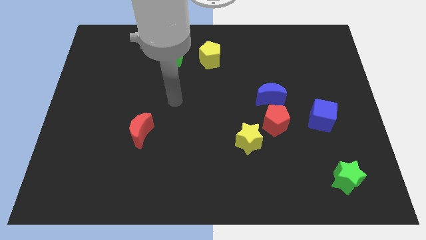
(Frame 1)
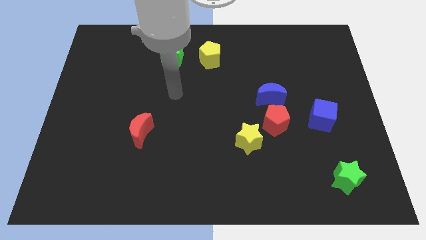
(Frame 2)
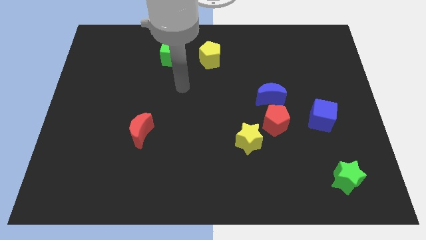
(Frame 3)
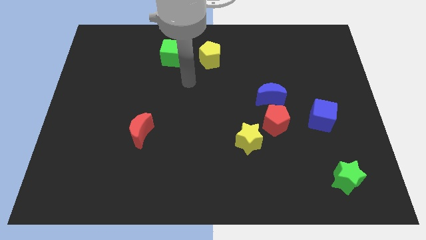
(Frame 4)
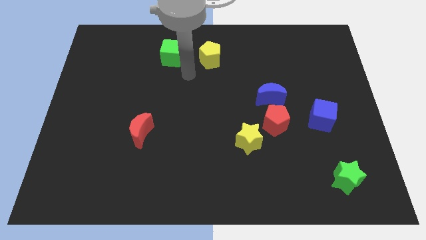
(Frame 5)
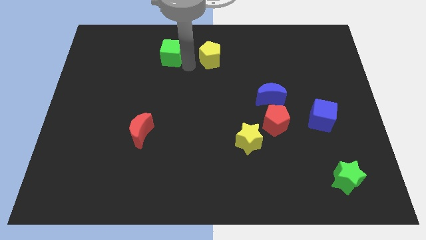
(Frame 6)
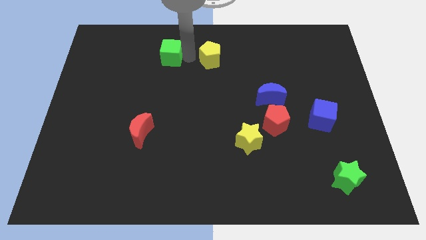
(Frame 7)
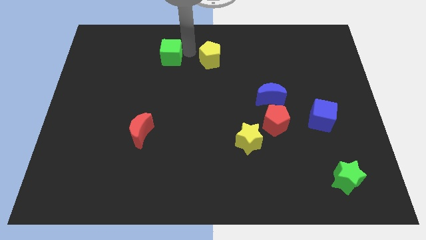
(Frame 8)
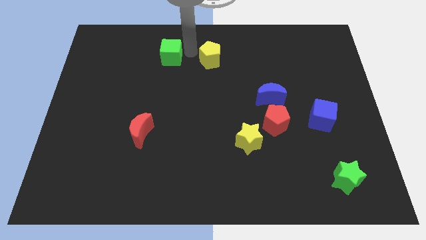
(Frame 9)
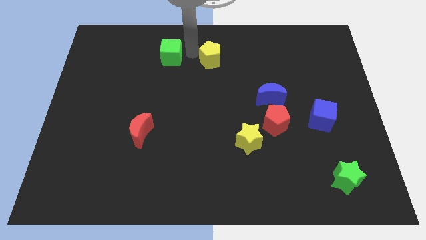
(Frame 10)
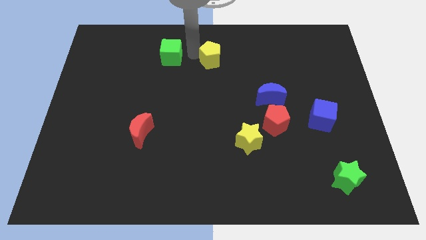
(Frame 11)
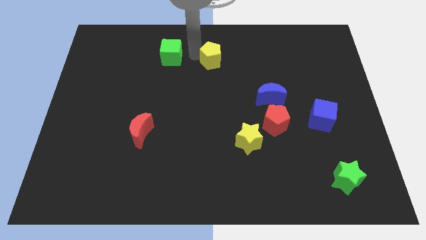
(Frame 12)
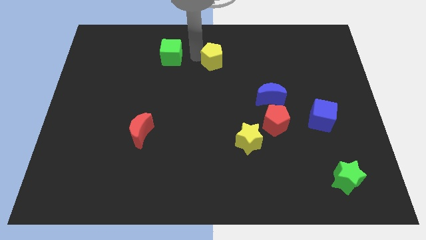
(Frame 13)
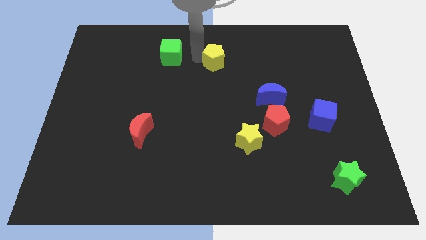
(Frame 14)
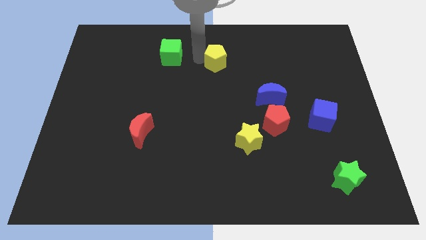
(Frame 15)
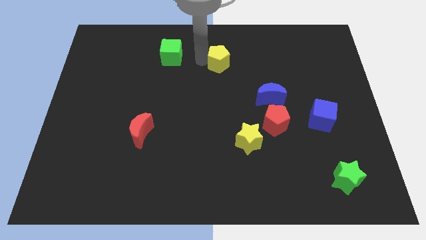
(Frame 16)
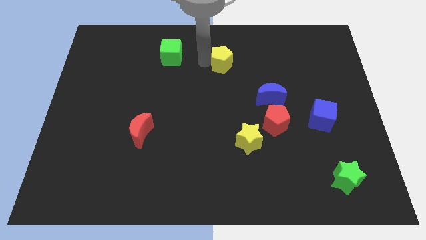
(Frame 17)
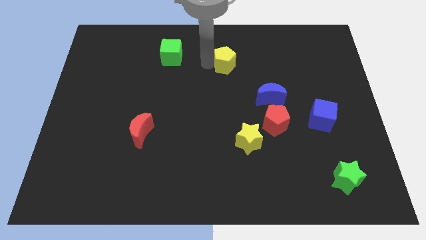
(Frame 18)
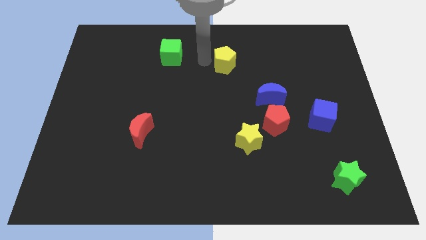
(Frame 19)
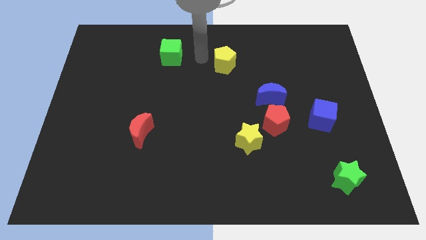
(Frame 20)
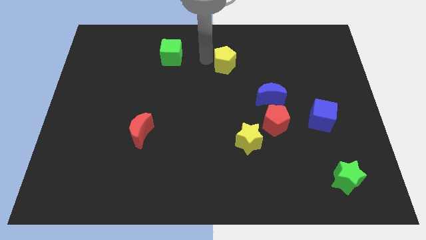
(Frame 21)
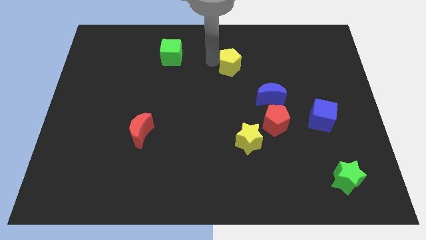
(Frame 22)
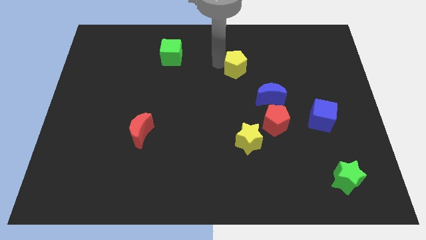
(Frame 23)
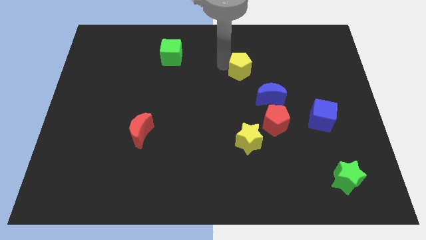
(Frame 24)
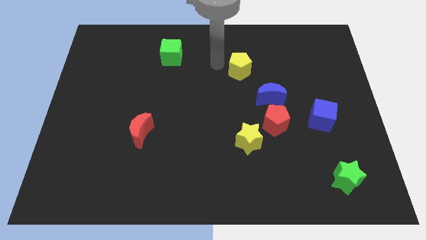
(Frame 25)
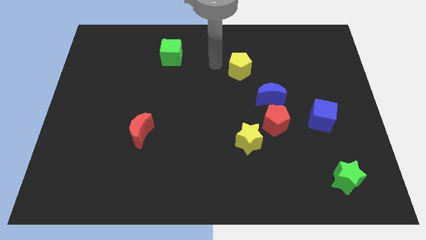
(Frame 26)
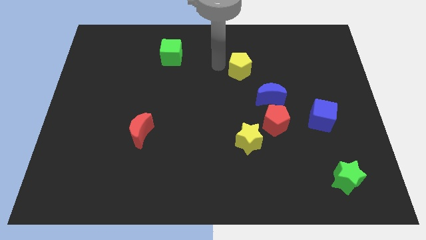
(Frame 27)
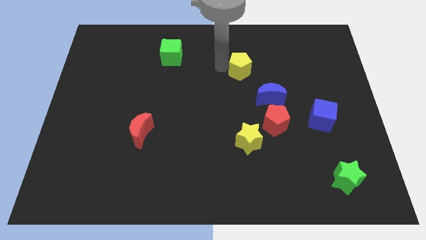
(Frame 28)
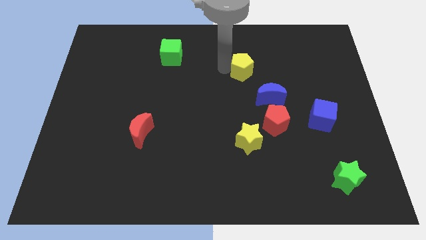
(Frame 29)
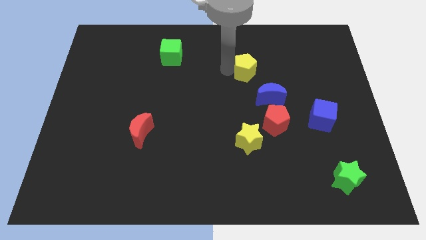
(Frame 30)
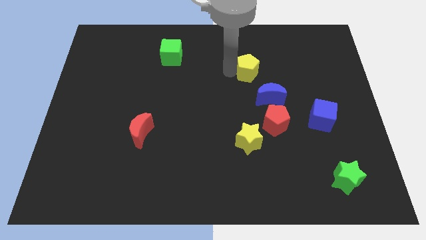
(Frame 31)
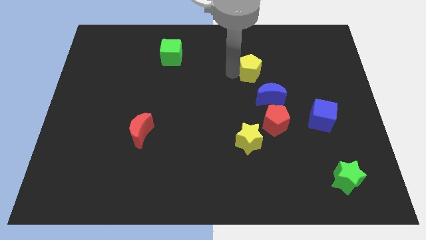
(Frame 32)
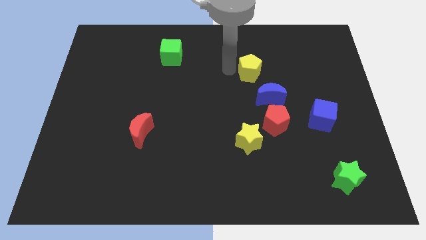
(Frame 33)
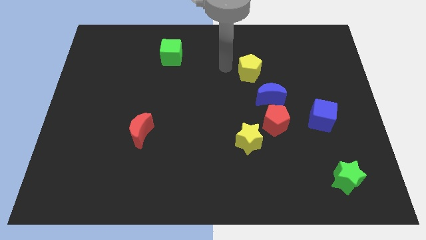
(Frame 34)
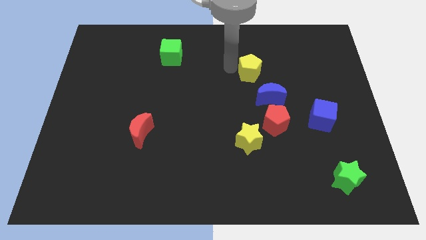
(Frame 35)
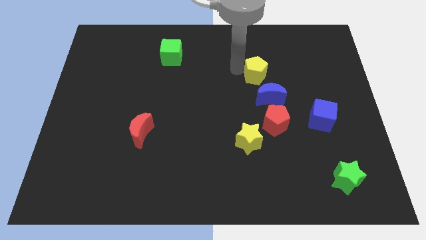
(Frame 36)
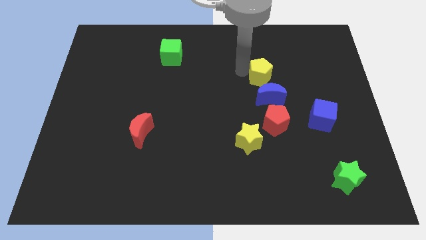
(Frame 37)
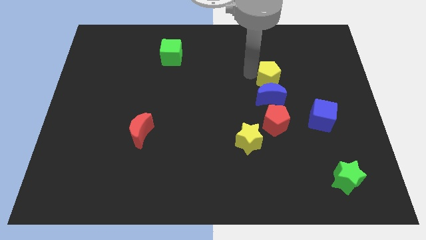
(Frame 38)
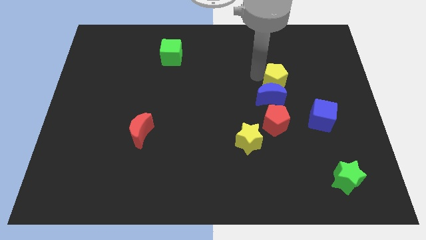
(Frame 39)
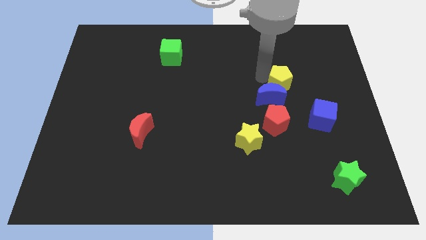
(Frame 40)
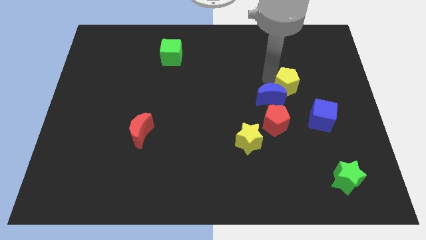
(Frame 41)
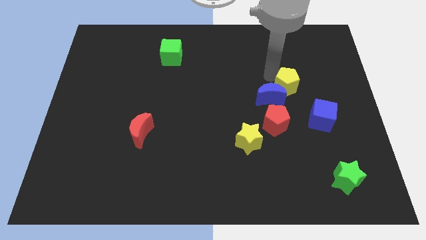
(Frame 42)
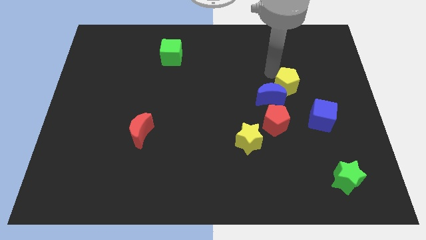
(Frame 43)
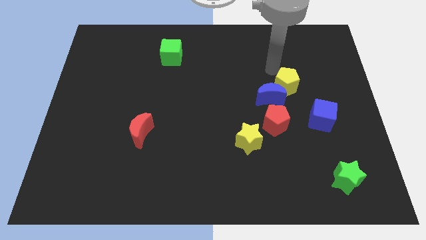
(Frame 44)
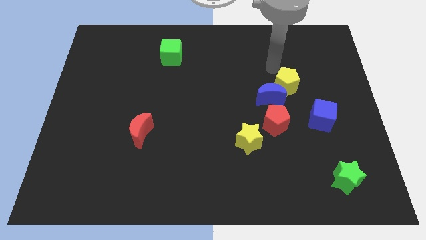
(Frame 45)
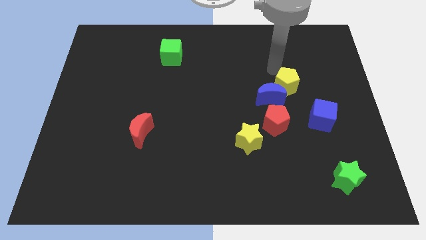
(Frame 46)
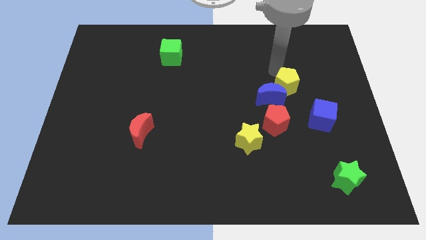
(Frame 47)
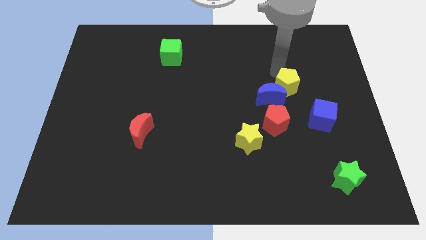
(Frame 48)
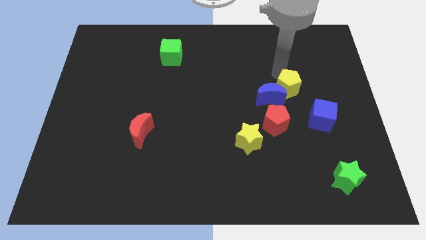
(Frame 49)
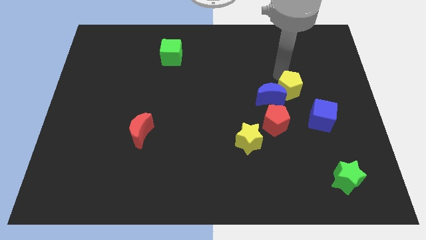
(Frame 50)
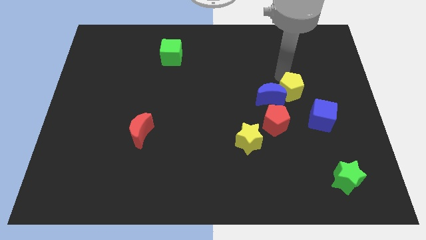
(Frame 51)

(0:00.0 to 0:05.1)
move the yellow pentagon diagonally downwards and to the right

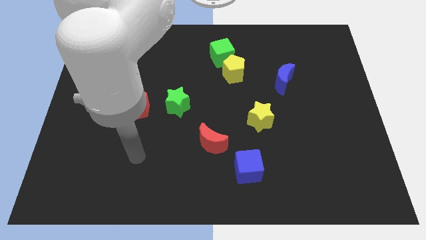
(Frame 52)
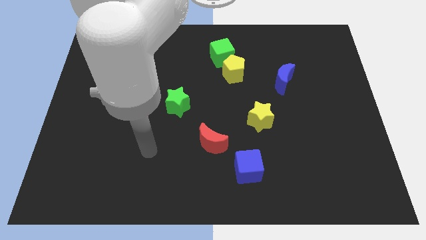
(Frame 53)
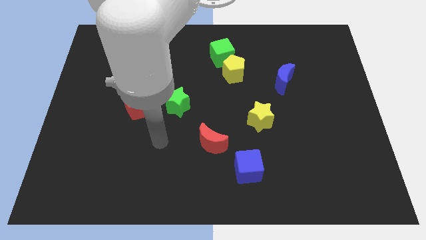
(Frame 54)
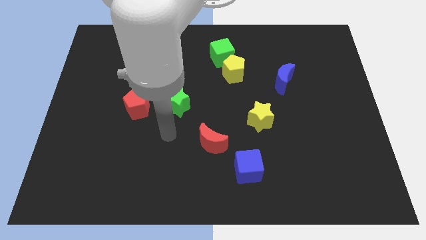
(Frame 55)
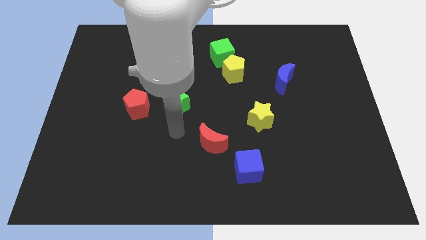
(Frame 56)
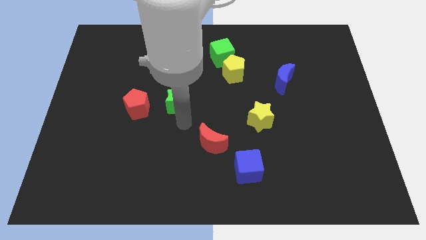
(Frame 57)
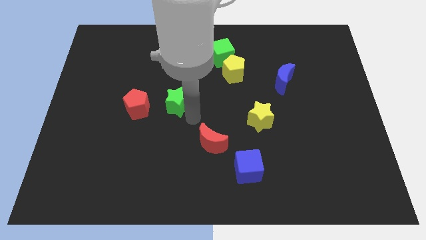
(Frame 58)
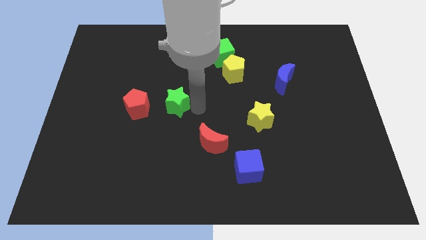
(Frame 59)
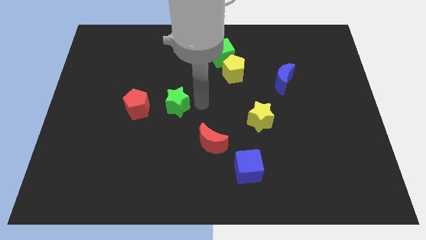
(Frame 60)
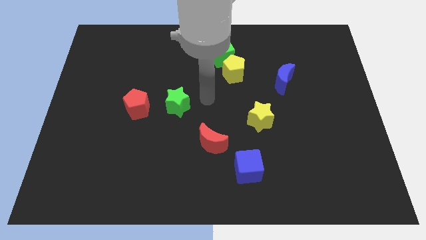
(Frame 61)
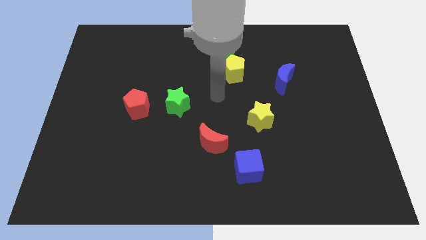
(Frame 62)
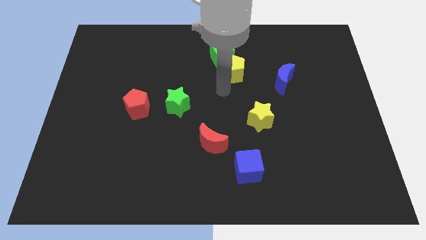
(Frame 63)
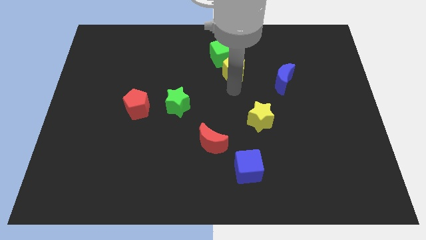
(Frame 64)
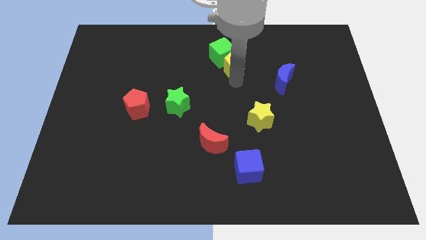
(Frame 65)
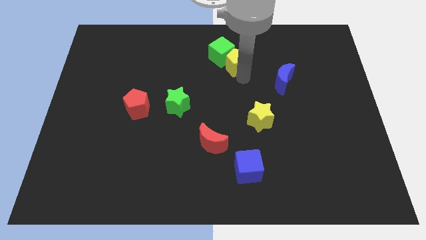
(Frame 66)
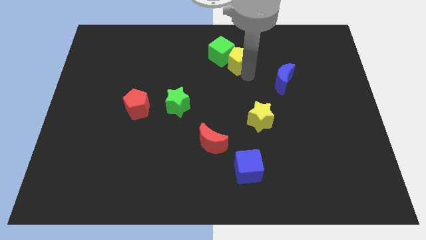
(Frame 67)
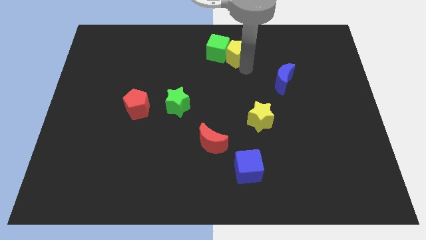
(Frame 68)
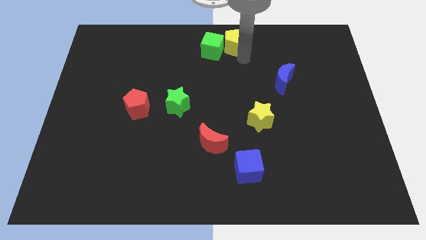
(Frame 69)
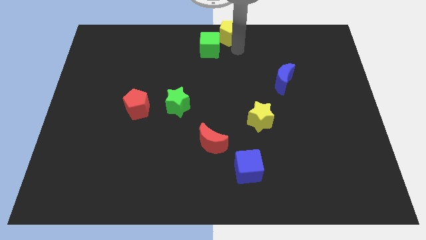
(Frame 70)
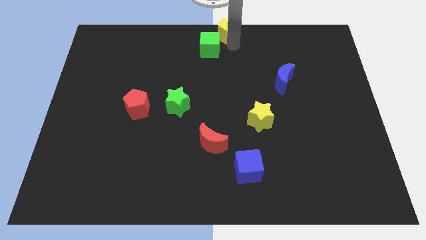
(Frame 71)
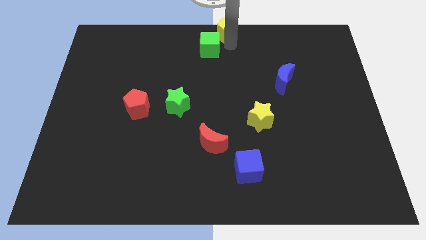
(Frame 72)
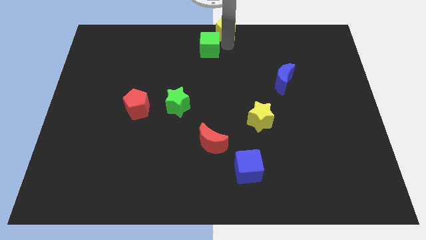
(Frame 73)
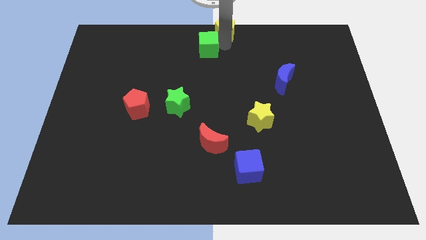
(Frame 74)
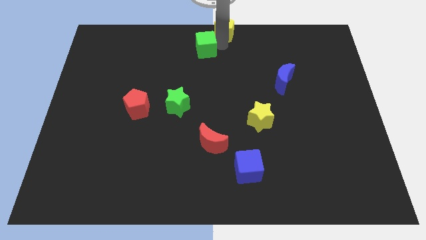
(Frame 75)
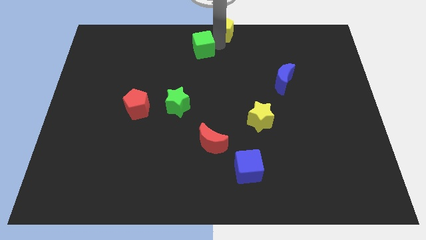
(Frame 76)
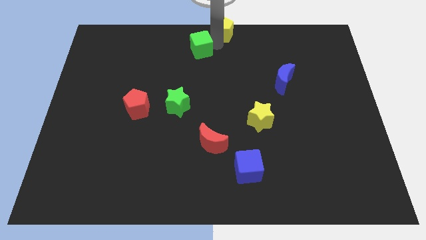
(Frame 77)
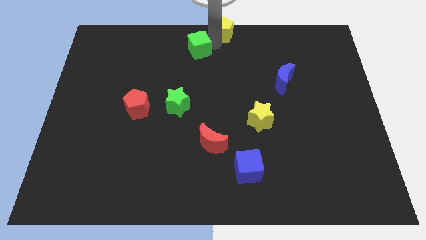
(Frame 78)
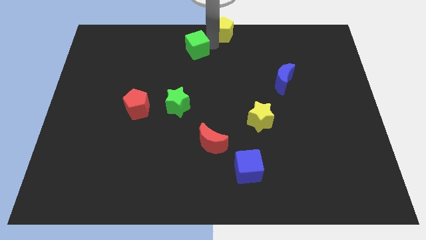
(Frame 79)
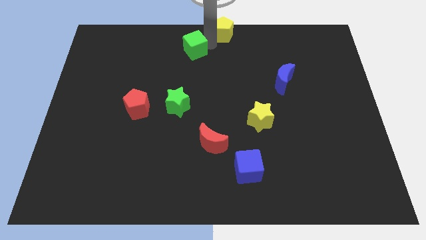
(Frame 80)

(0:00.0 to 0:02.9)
push the green cube a little left
